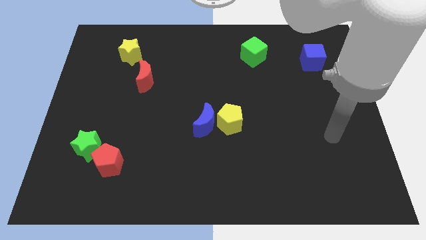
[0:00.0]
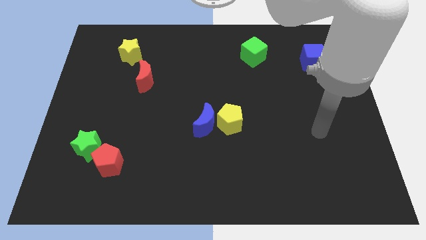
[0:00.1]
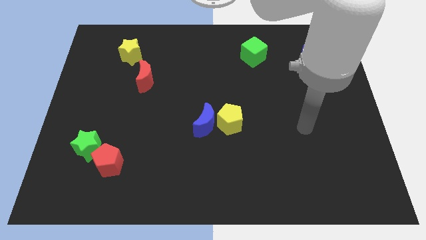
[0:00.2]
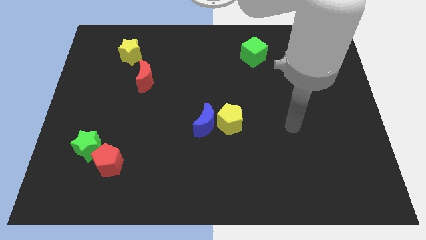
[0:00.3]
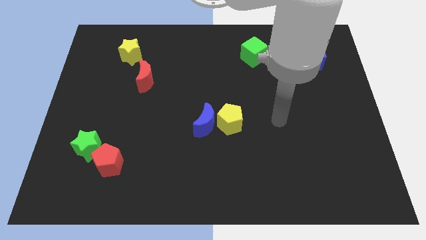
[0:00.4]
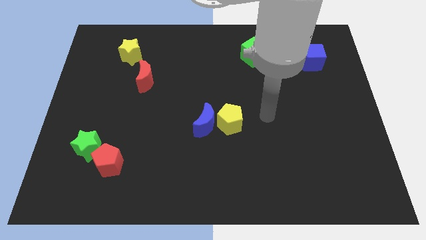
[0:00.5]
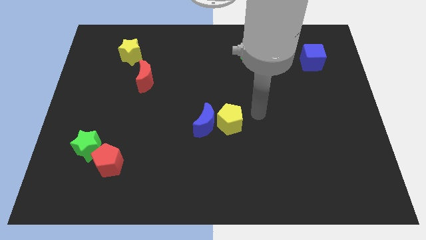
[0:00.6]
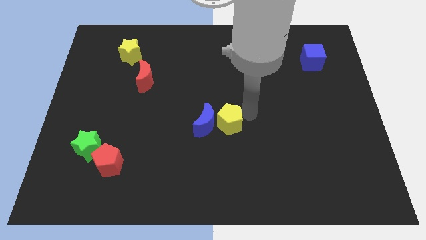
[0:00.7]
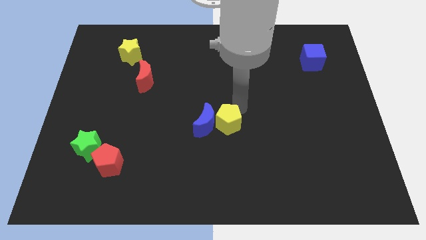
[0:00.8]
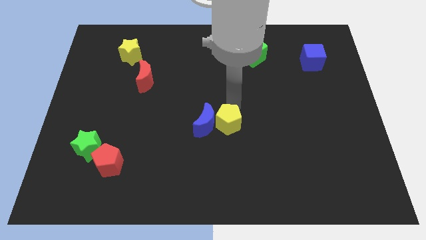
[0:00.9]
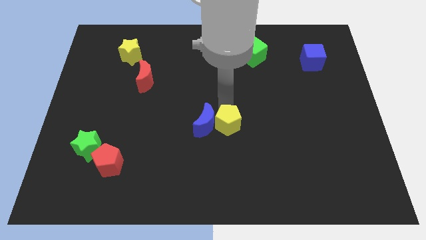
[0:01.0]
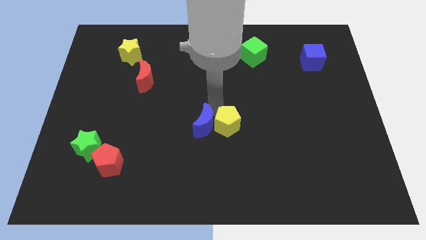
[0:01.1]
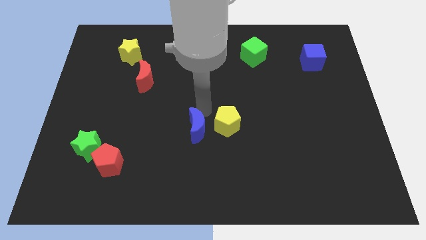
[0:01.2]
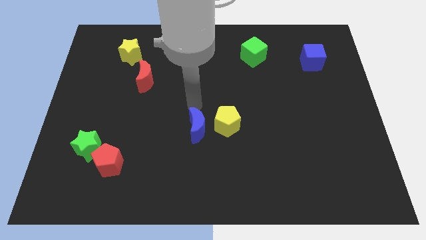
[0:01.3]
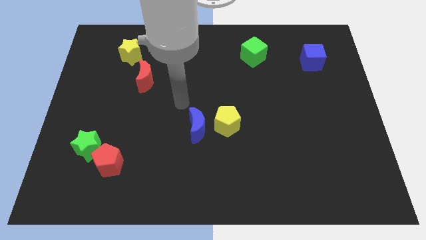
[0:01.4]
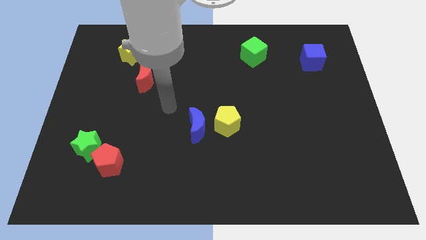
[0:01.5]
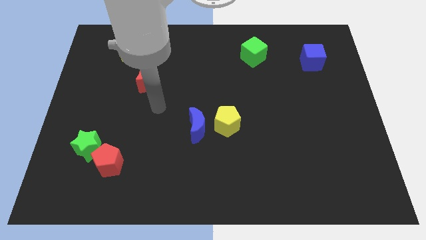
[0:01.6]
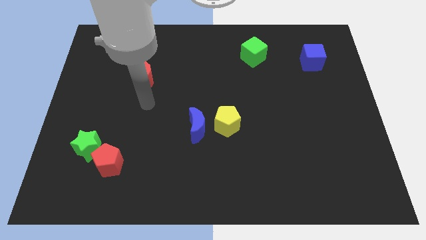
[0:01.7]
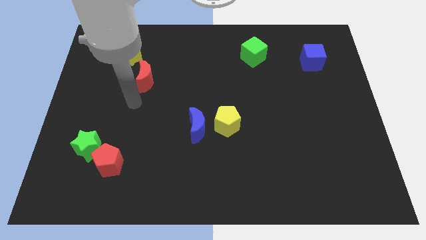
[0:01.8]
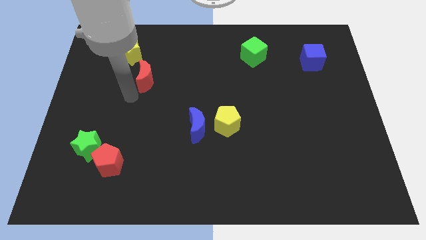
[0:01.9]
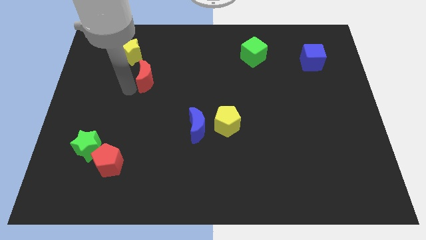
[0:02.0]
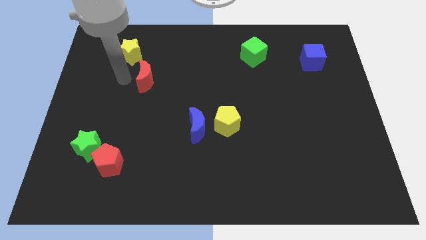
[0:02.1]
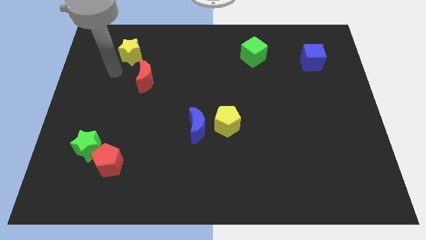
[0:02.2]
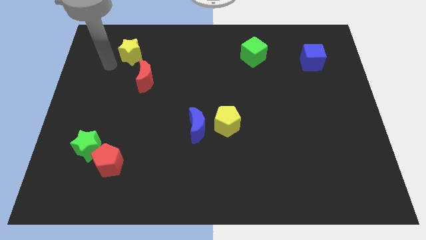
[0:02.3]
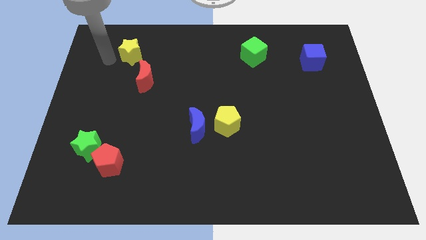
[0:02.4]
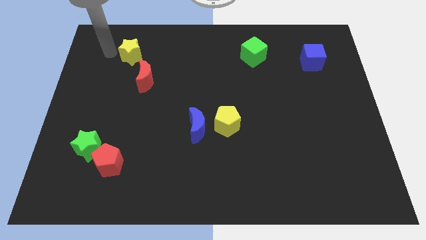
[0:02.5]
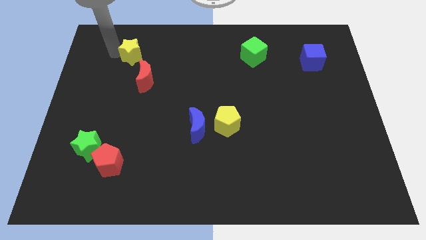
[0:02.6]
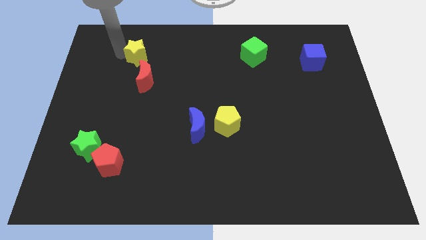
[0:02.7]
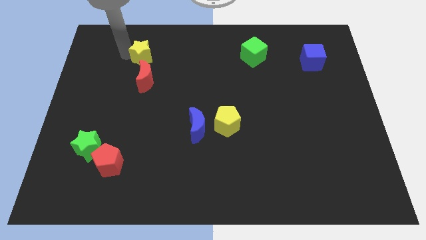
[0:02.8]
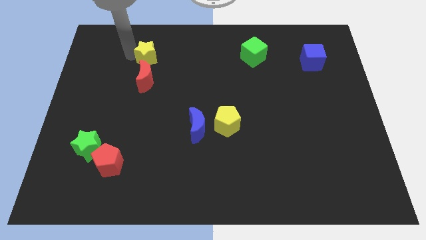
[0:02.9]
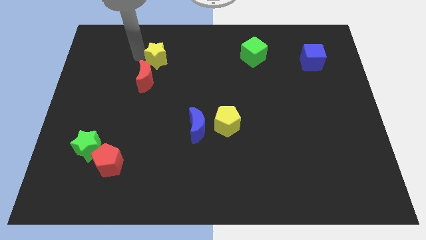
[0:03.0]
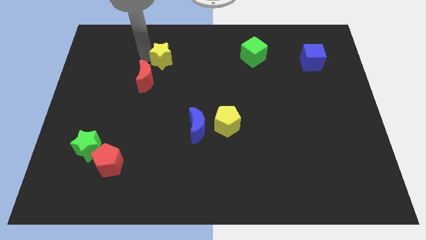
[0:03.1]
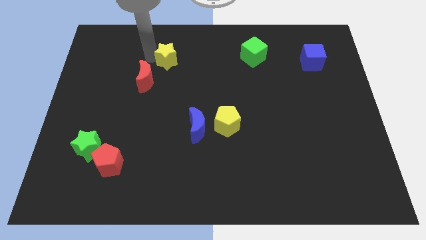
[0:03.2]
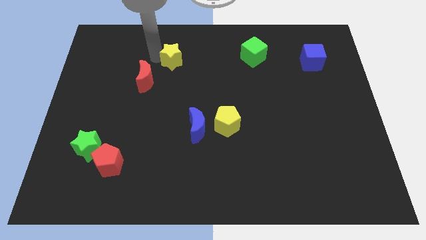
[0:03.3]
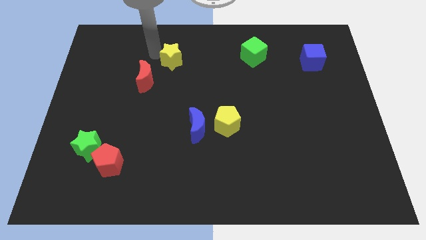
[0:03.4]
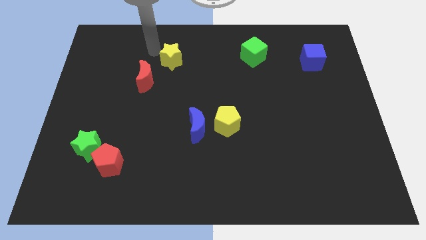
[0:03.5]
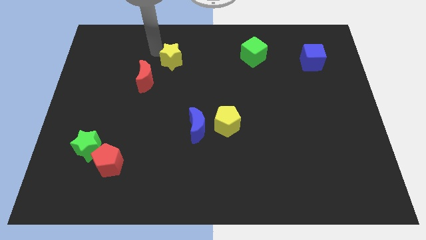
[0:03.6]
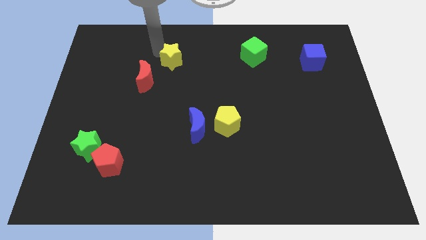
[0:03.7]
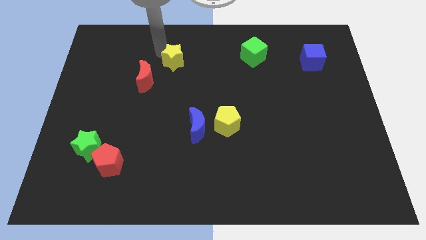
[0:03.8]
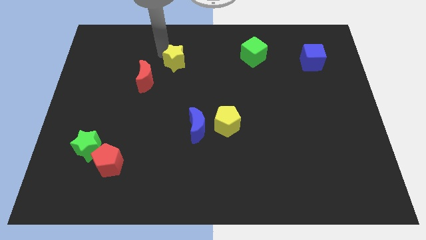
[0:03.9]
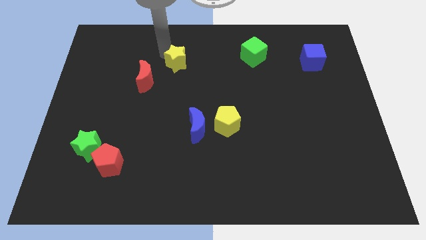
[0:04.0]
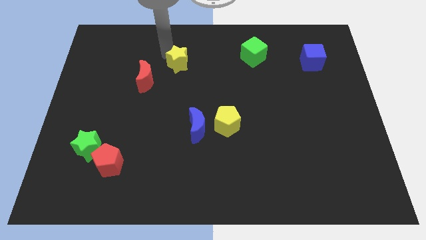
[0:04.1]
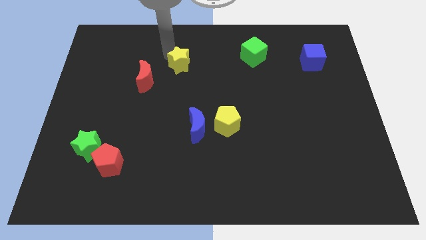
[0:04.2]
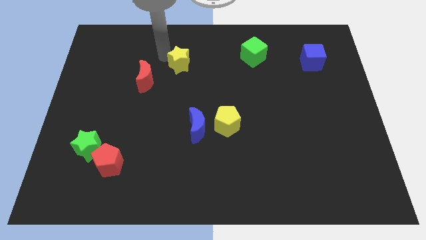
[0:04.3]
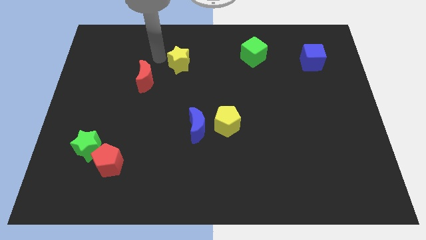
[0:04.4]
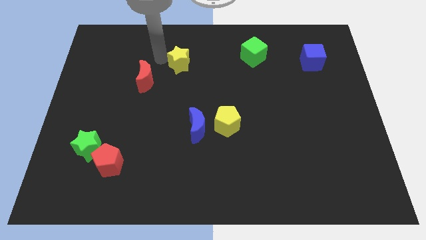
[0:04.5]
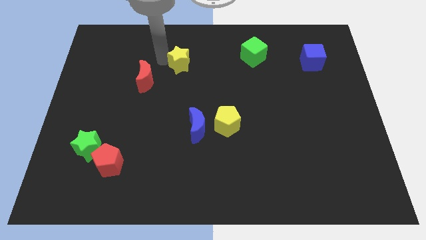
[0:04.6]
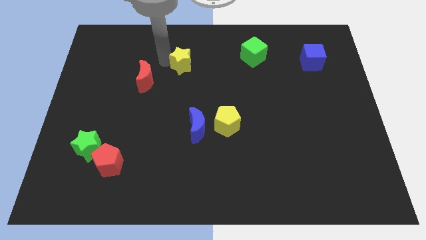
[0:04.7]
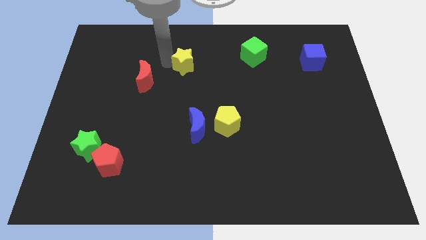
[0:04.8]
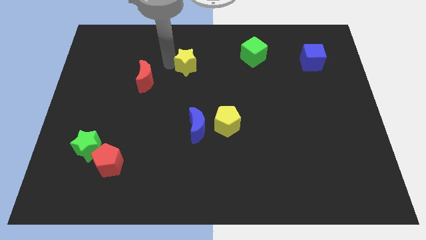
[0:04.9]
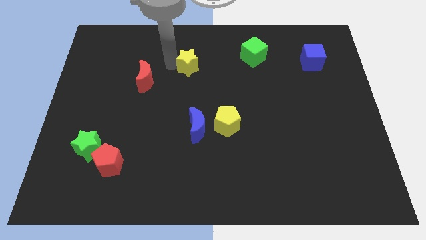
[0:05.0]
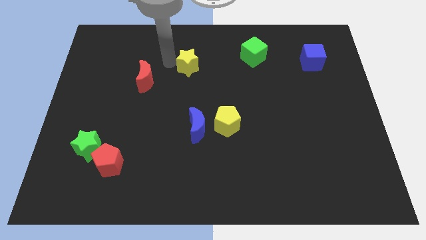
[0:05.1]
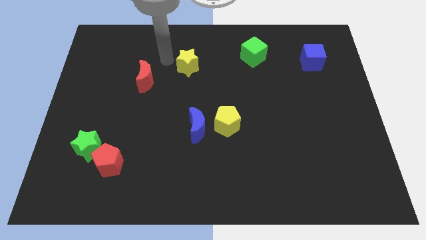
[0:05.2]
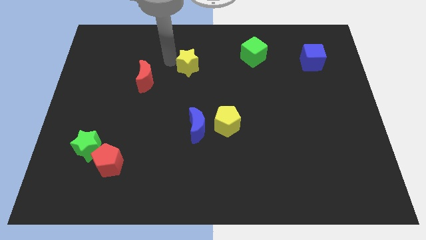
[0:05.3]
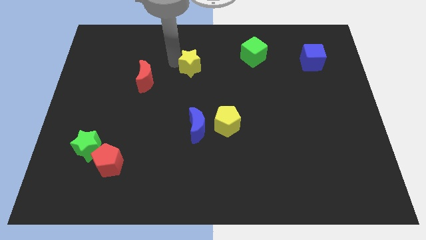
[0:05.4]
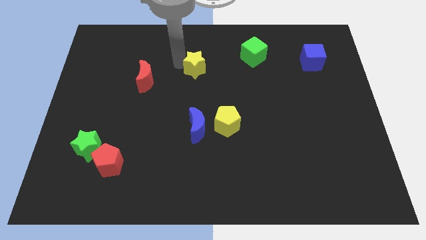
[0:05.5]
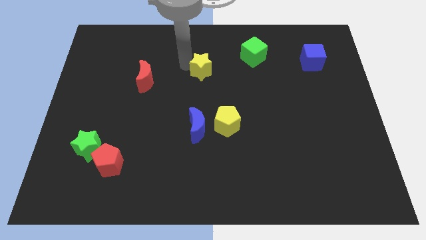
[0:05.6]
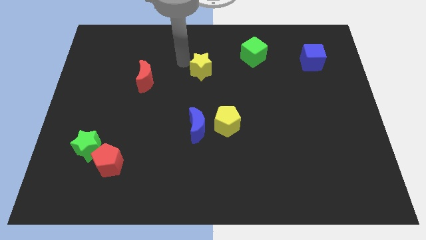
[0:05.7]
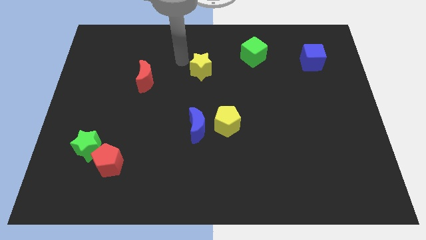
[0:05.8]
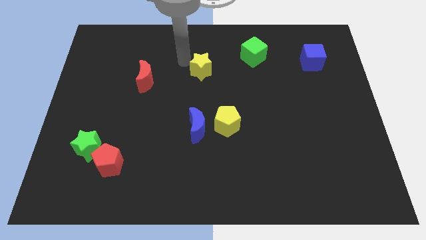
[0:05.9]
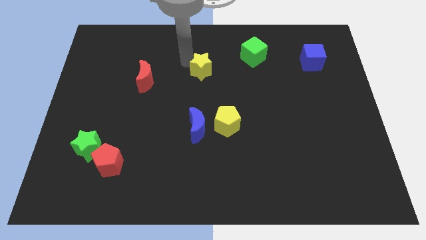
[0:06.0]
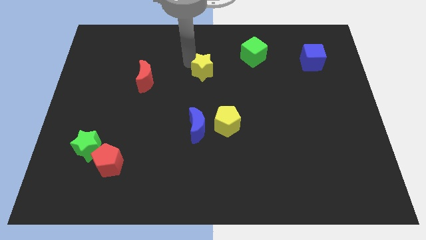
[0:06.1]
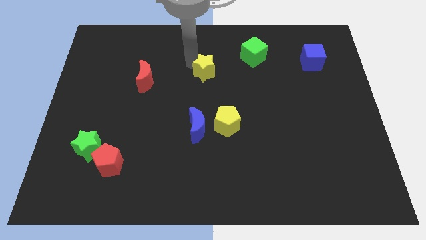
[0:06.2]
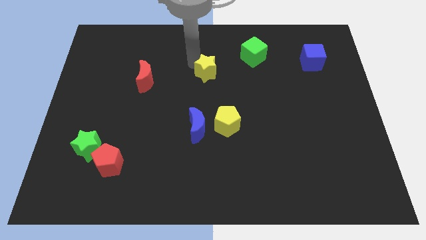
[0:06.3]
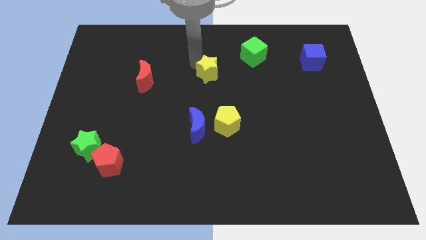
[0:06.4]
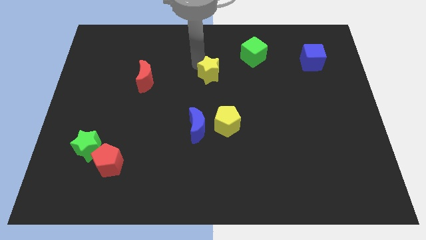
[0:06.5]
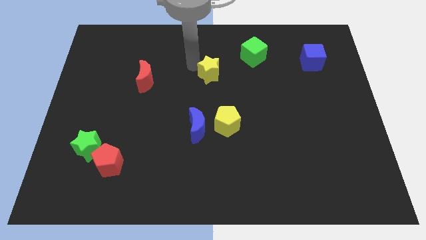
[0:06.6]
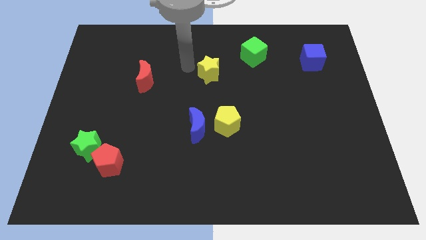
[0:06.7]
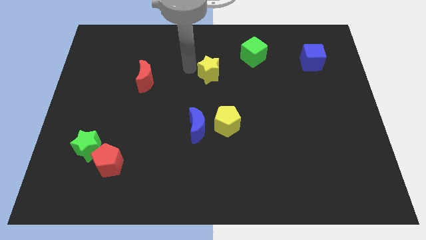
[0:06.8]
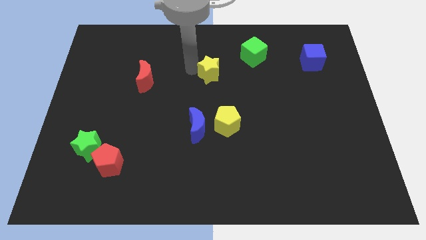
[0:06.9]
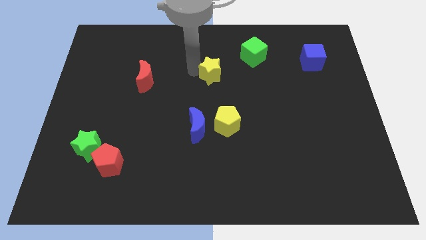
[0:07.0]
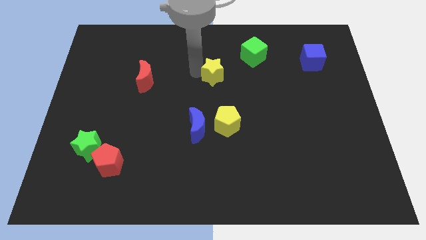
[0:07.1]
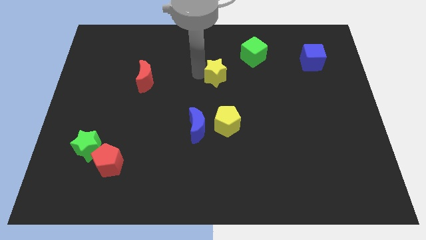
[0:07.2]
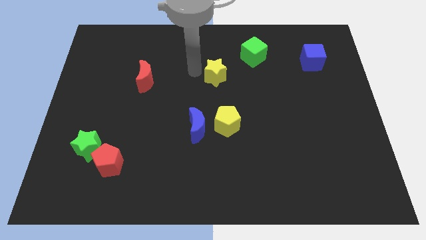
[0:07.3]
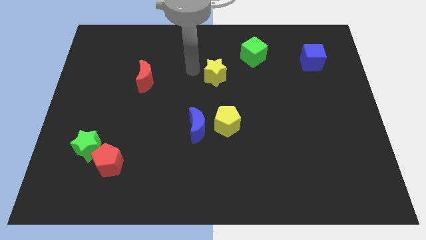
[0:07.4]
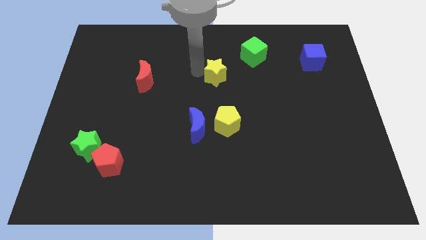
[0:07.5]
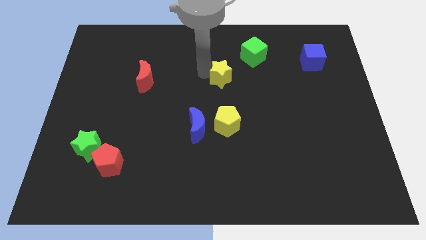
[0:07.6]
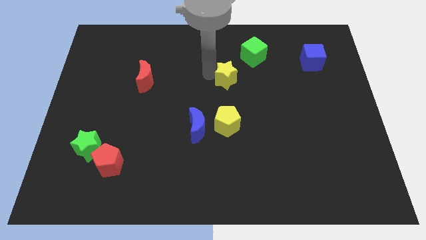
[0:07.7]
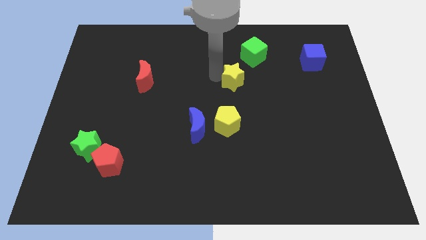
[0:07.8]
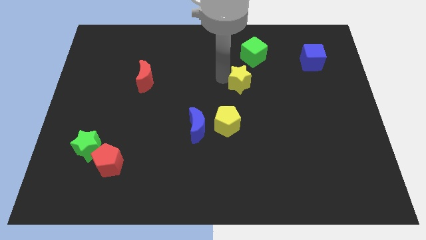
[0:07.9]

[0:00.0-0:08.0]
push the yellow star to the bottom side of the green cube
